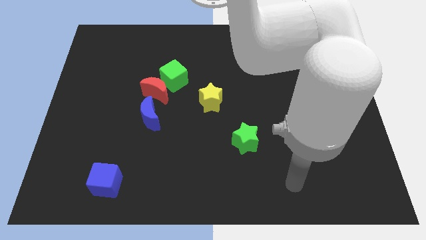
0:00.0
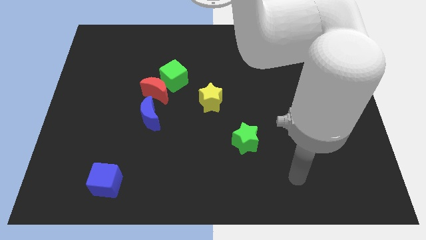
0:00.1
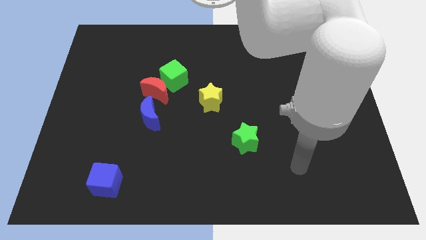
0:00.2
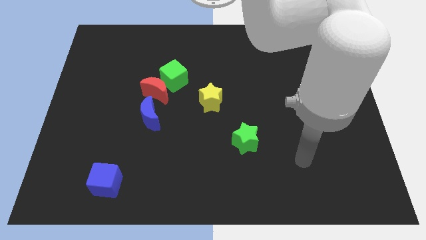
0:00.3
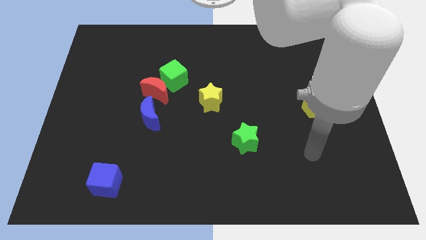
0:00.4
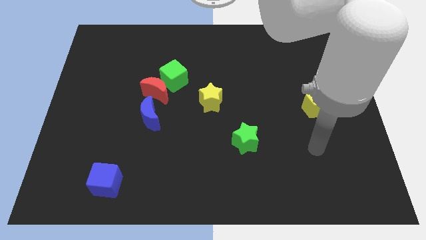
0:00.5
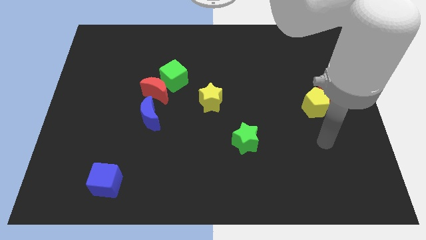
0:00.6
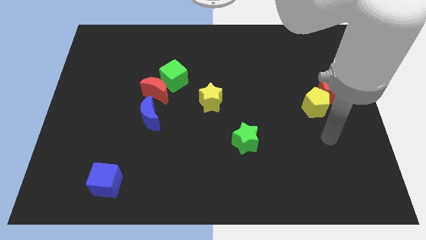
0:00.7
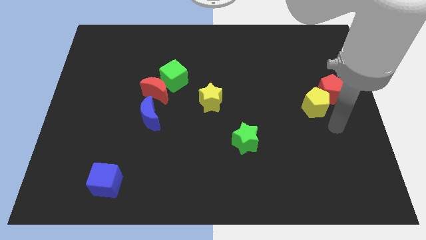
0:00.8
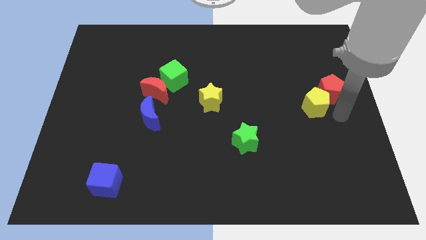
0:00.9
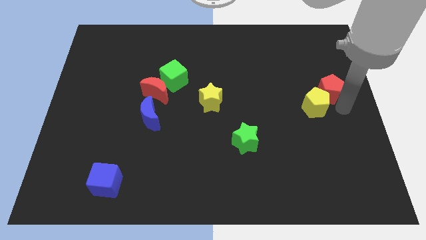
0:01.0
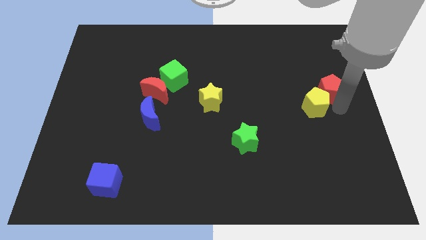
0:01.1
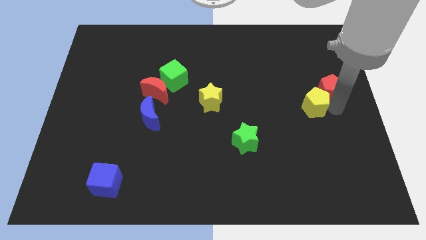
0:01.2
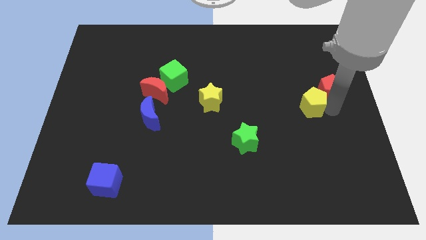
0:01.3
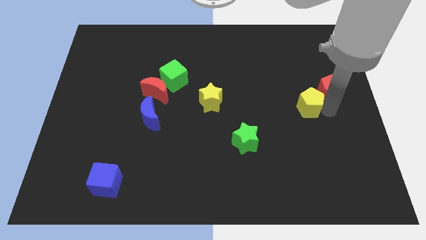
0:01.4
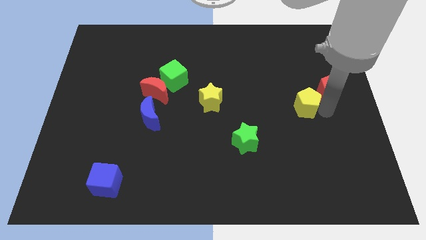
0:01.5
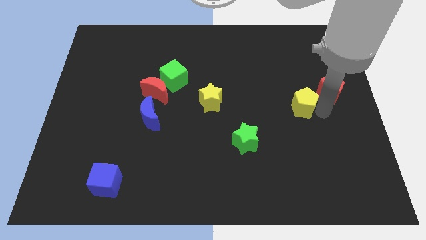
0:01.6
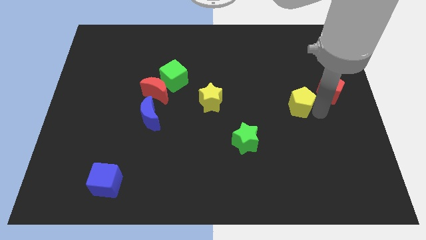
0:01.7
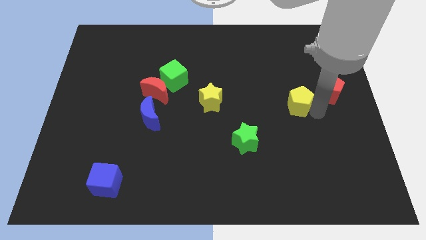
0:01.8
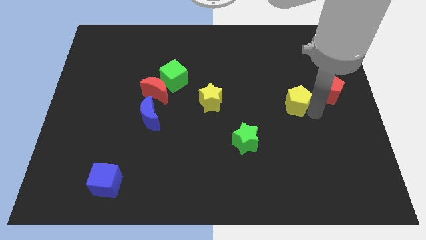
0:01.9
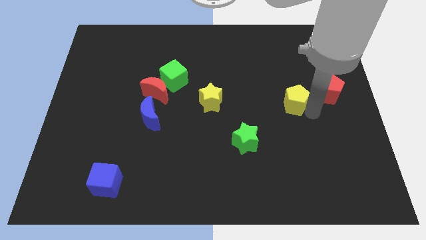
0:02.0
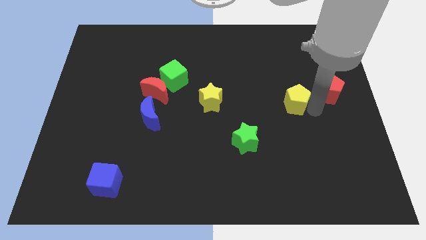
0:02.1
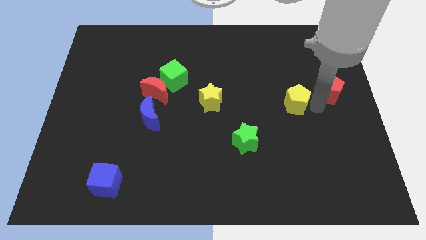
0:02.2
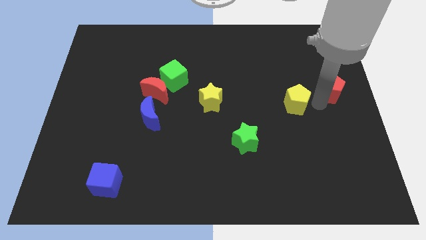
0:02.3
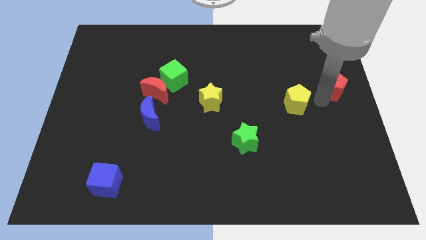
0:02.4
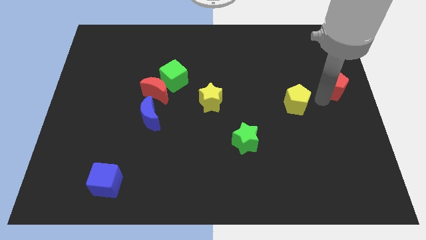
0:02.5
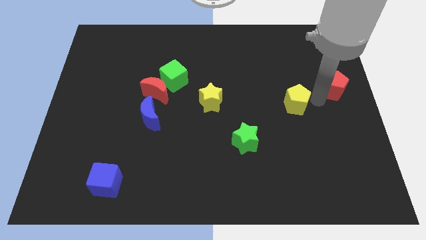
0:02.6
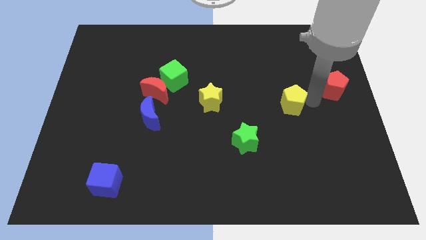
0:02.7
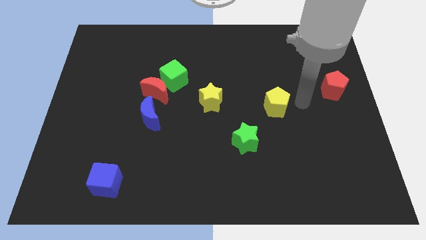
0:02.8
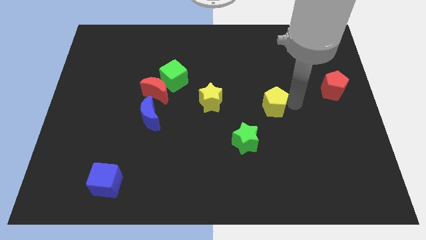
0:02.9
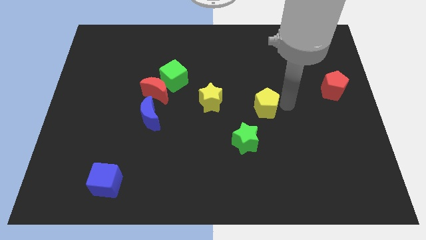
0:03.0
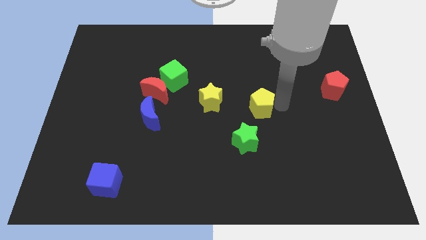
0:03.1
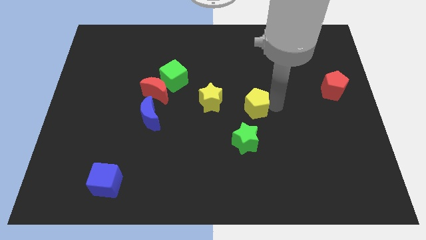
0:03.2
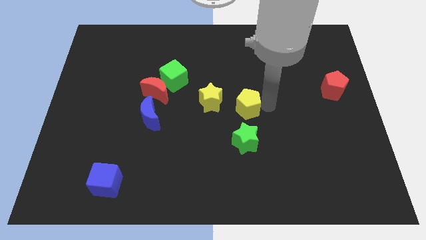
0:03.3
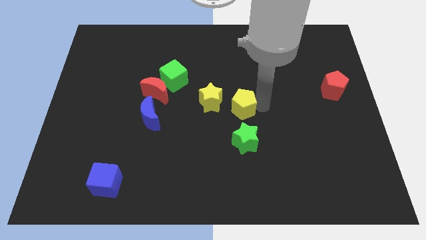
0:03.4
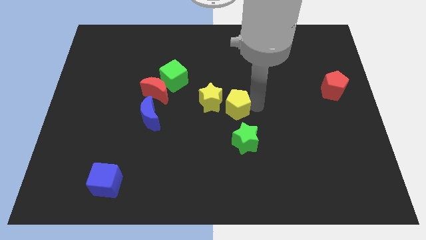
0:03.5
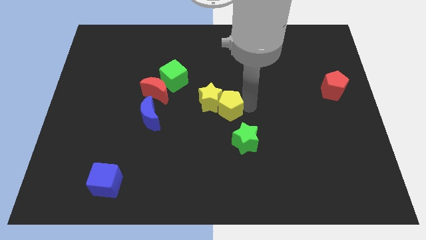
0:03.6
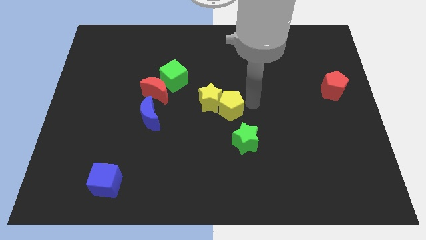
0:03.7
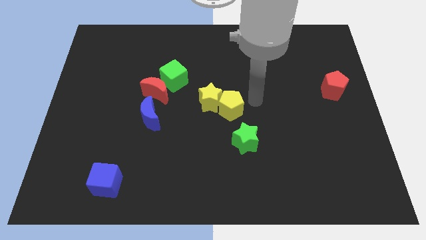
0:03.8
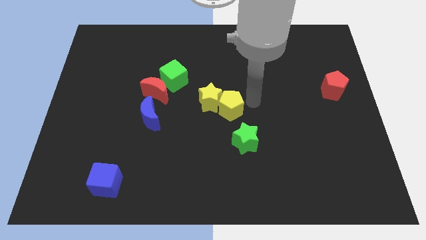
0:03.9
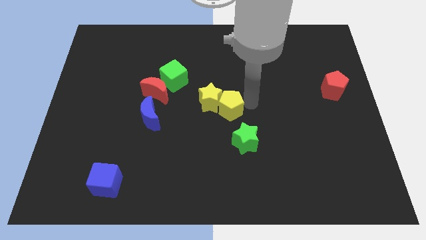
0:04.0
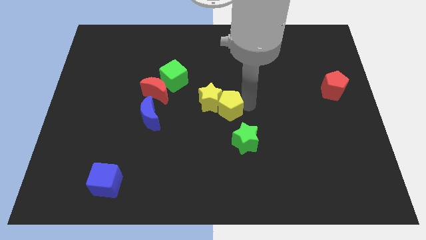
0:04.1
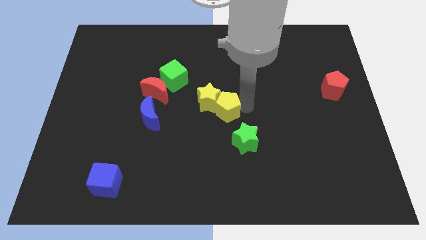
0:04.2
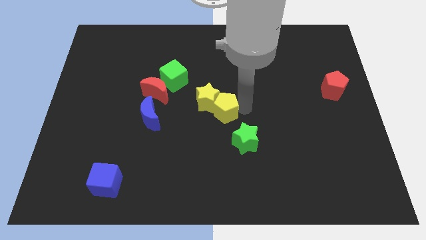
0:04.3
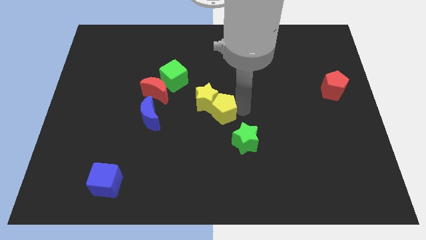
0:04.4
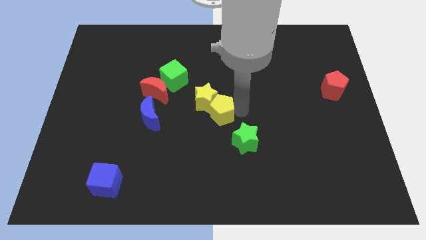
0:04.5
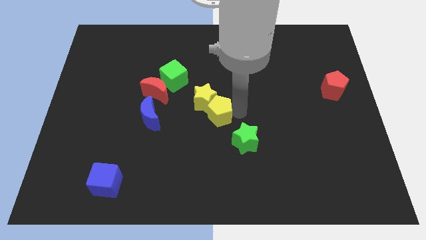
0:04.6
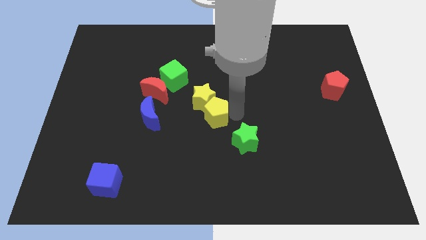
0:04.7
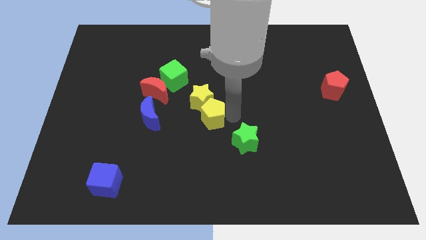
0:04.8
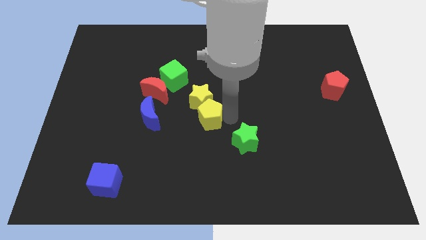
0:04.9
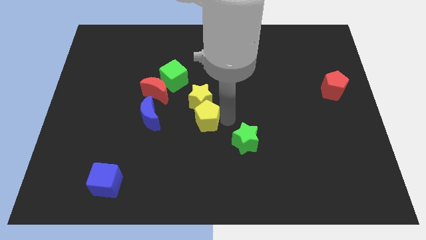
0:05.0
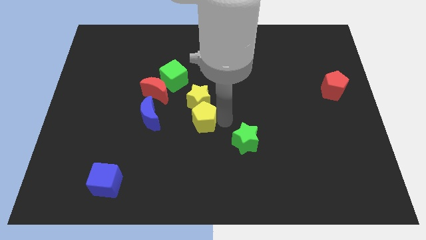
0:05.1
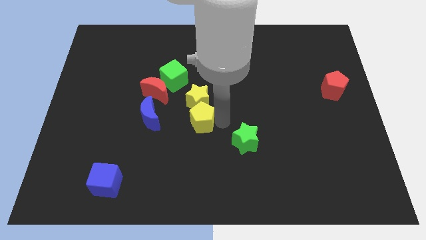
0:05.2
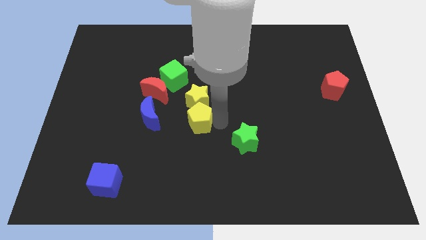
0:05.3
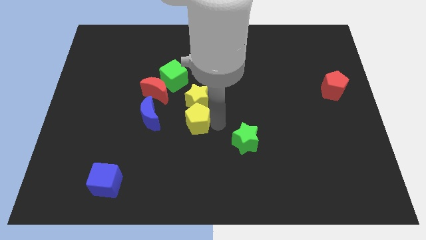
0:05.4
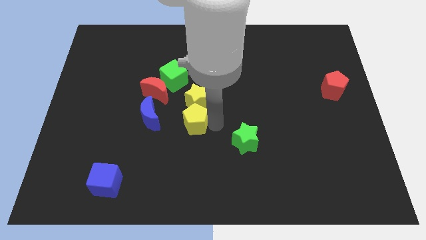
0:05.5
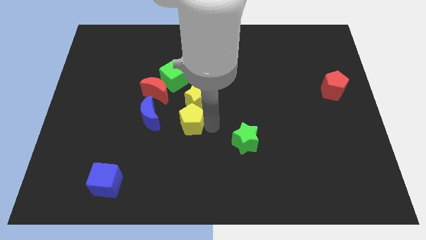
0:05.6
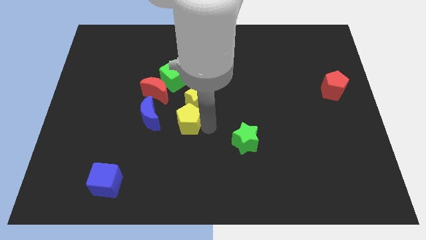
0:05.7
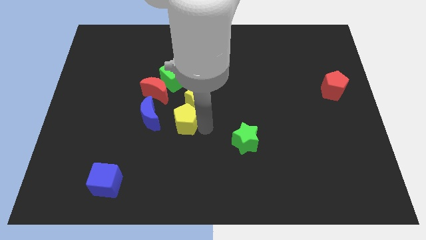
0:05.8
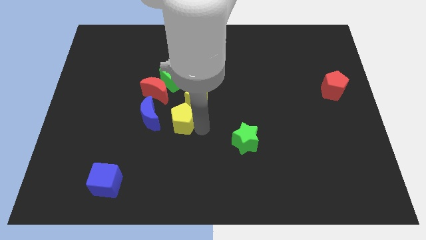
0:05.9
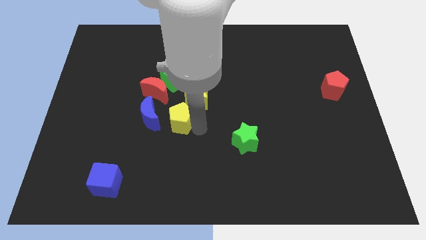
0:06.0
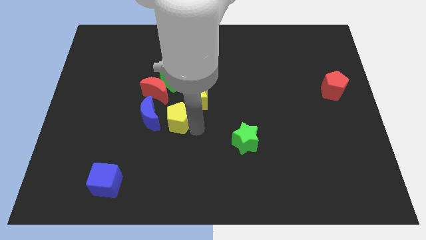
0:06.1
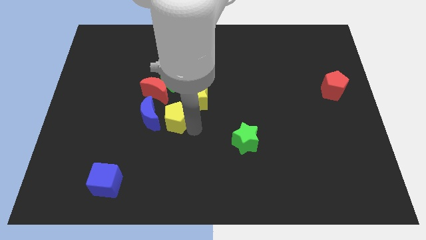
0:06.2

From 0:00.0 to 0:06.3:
move the yellow pentagon towards the blue moon

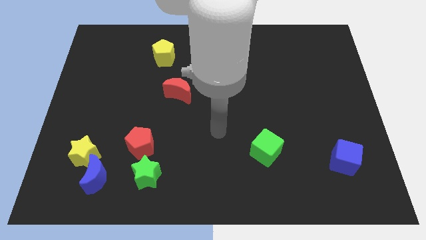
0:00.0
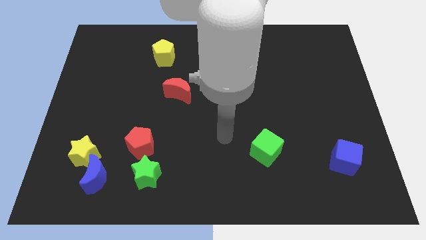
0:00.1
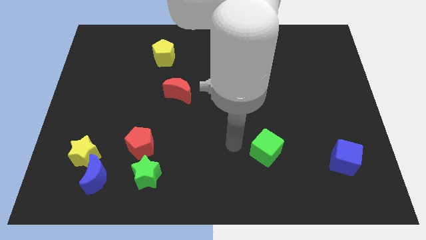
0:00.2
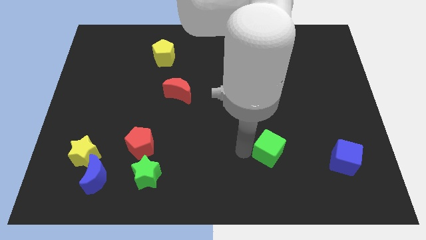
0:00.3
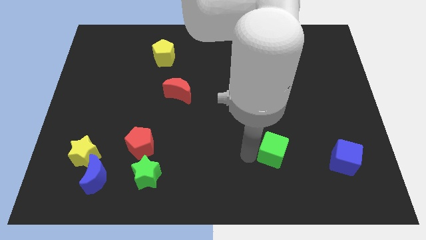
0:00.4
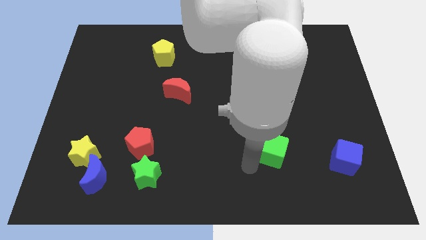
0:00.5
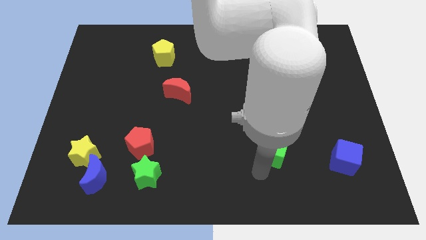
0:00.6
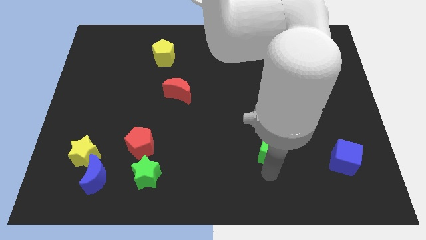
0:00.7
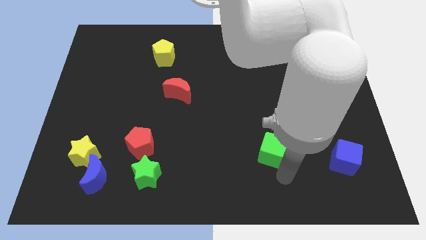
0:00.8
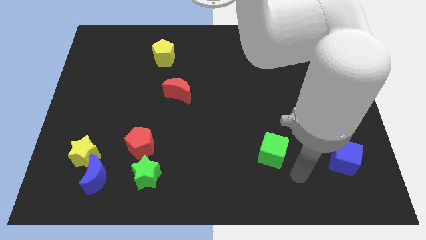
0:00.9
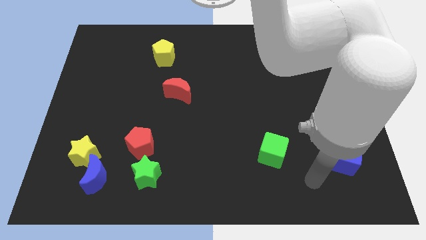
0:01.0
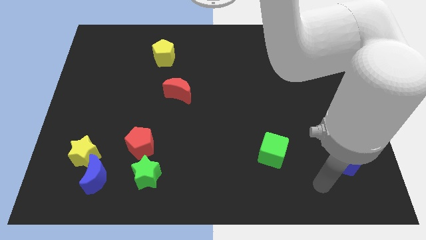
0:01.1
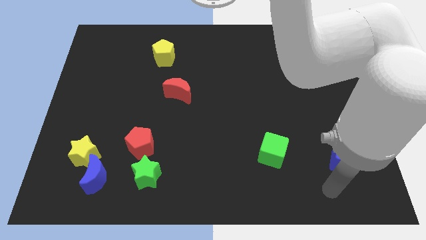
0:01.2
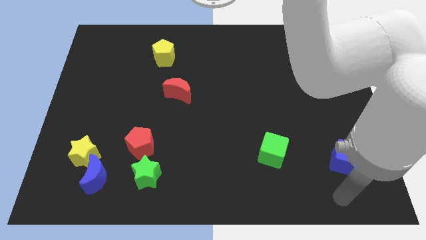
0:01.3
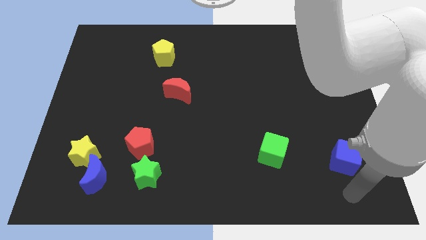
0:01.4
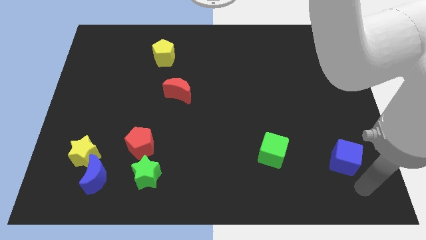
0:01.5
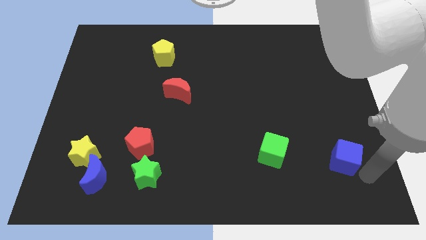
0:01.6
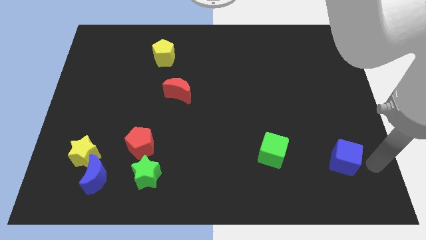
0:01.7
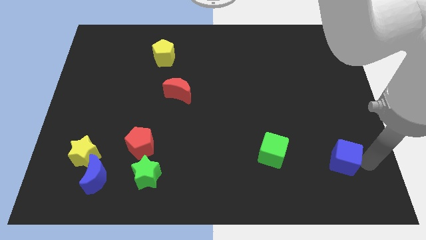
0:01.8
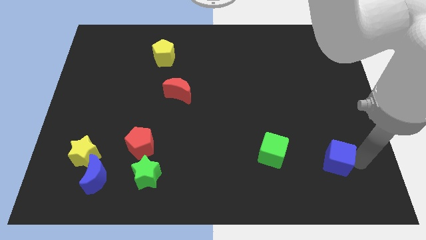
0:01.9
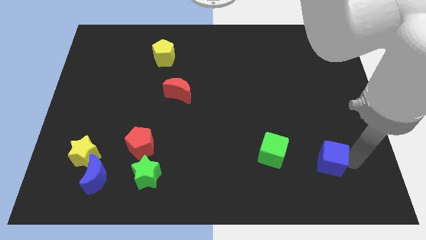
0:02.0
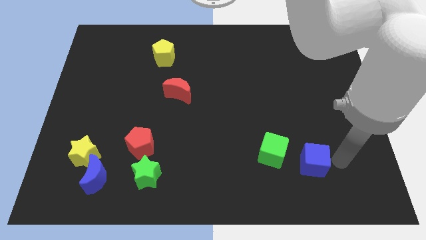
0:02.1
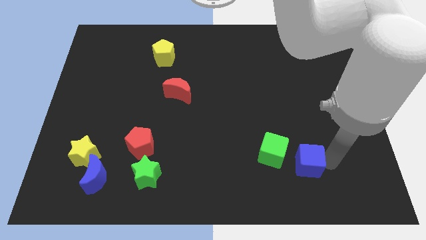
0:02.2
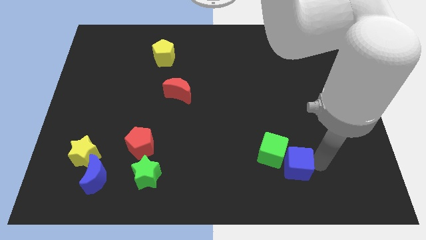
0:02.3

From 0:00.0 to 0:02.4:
slide the blue cube next to the green cube
